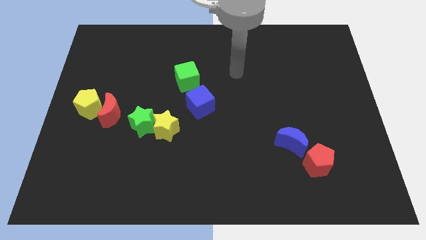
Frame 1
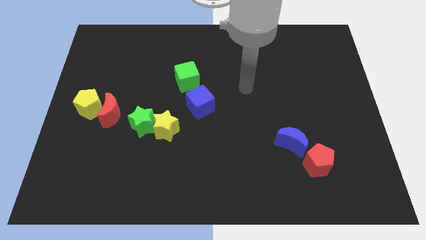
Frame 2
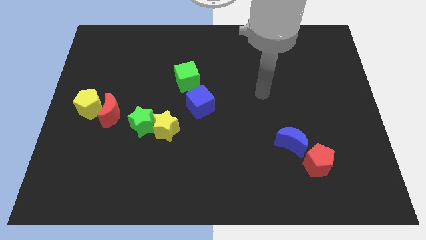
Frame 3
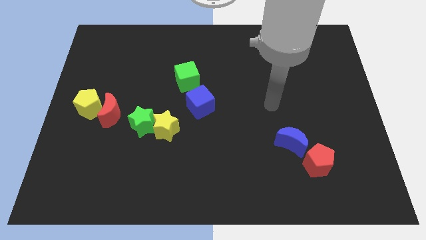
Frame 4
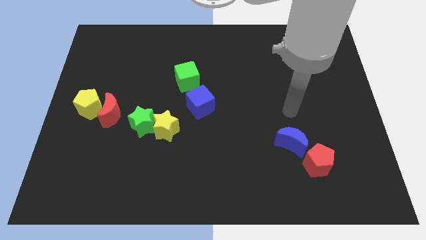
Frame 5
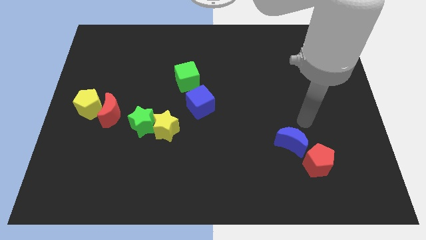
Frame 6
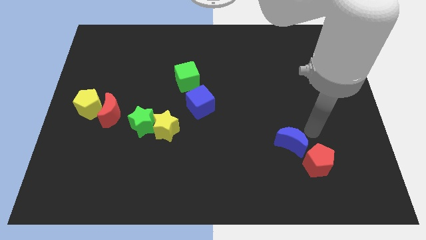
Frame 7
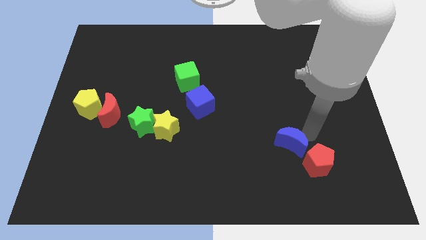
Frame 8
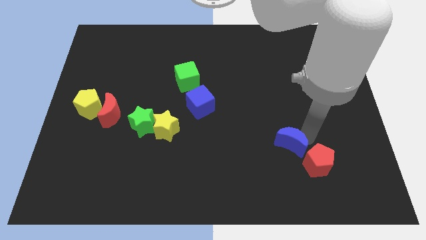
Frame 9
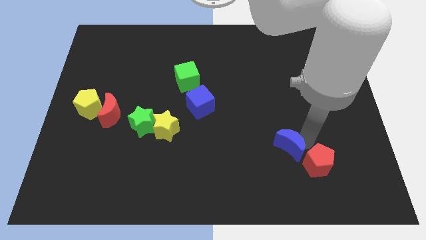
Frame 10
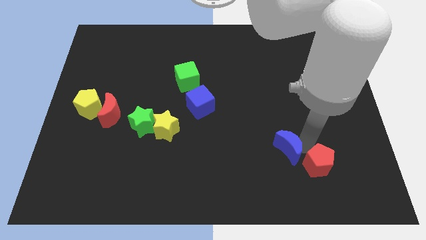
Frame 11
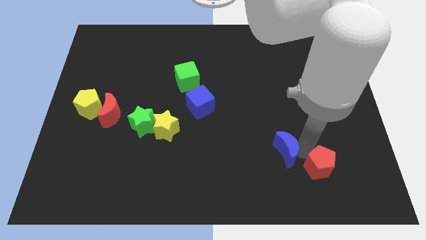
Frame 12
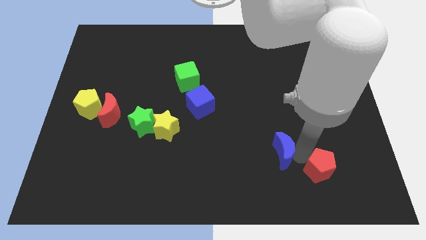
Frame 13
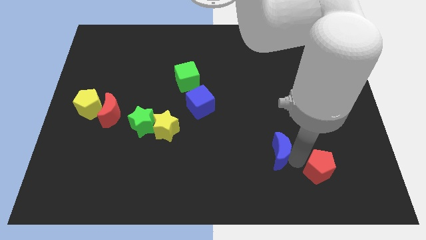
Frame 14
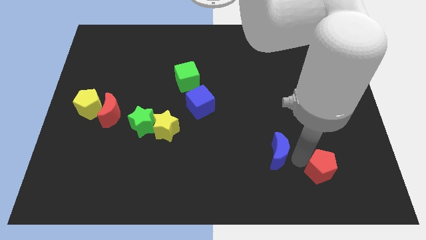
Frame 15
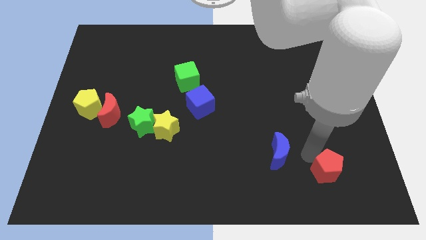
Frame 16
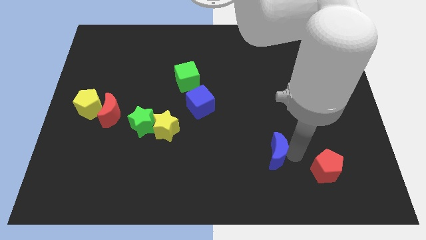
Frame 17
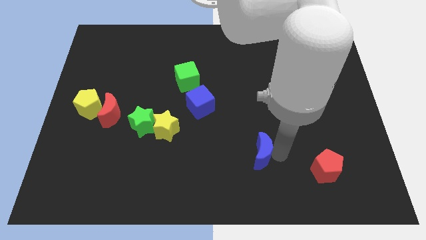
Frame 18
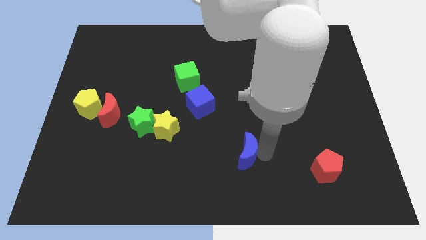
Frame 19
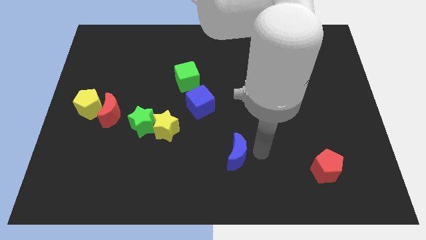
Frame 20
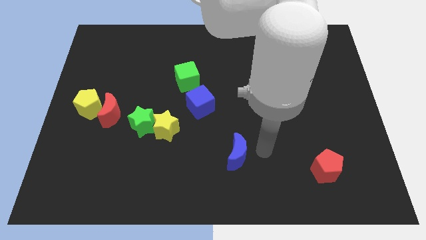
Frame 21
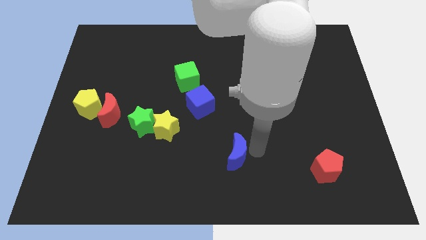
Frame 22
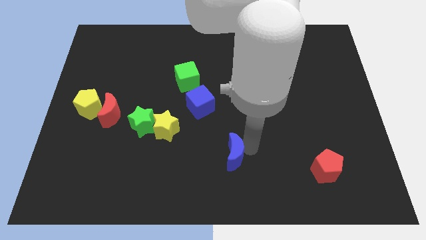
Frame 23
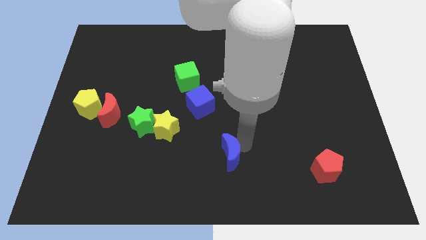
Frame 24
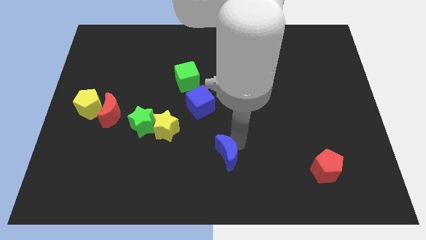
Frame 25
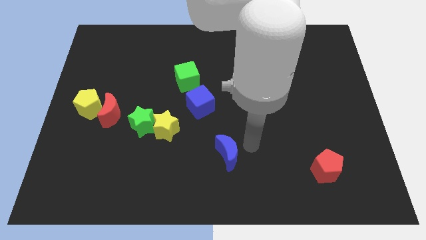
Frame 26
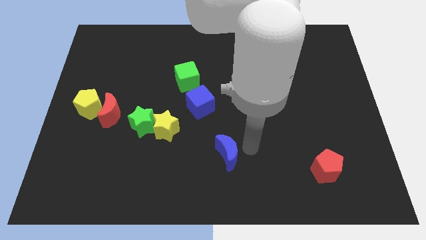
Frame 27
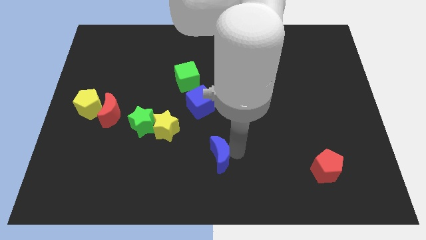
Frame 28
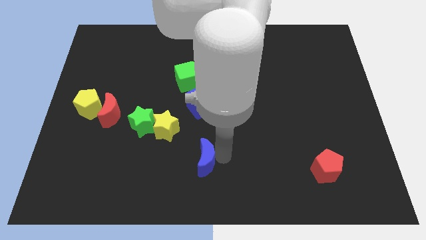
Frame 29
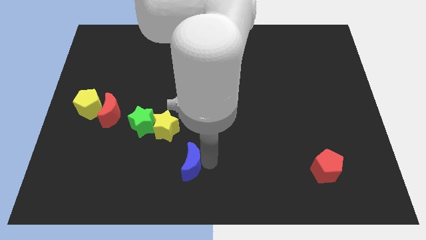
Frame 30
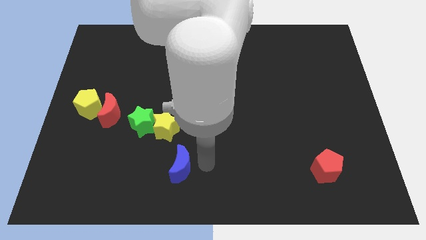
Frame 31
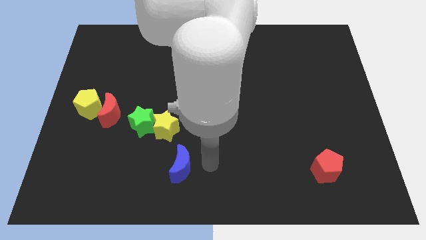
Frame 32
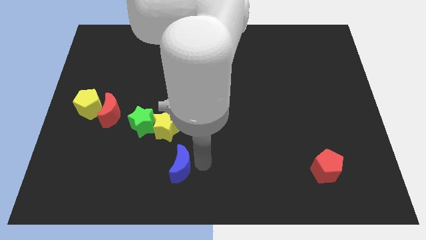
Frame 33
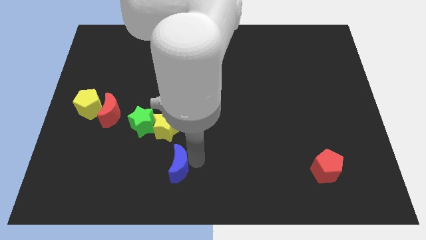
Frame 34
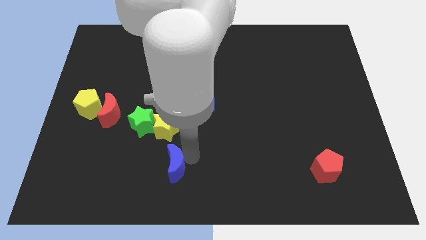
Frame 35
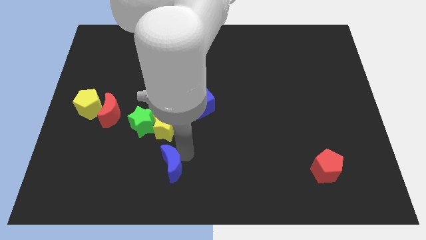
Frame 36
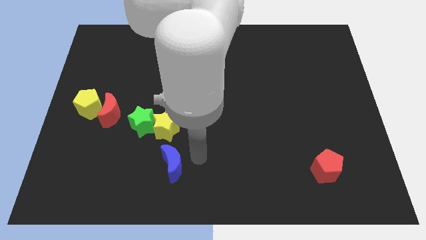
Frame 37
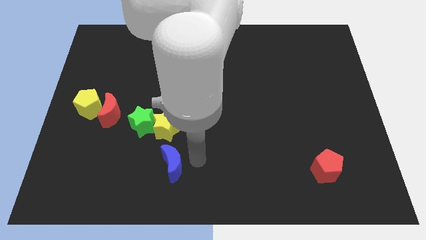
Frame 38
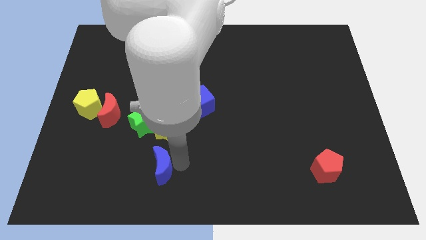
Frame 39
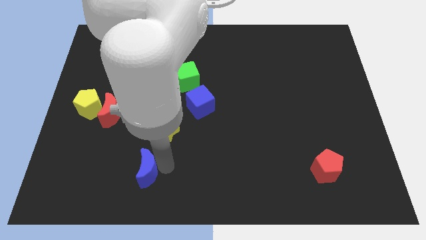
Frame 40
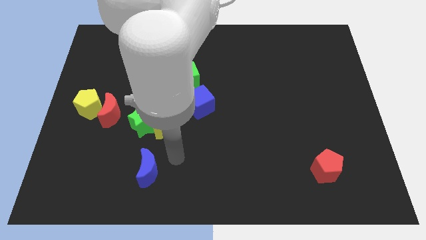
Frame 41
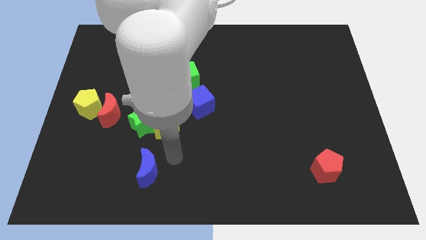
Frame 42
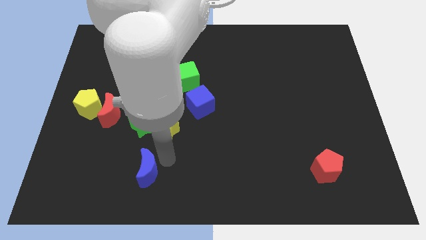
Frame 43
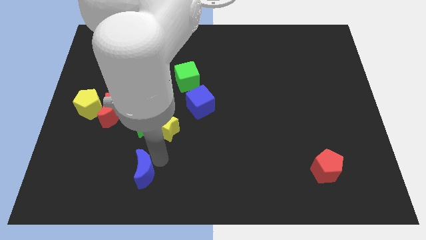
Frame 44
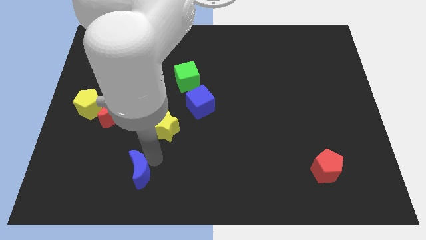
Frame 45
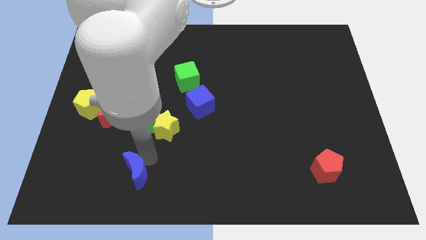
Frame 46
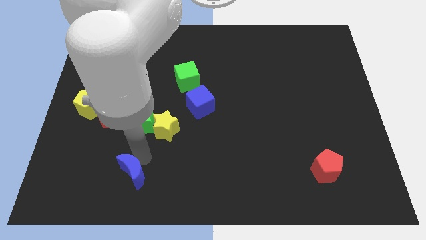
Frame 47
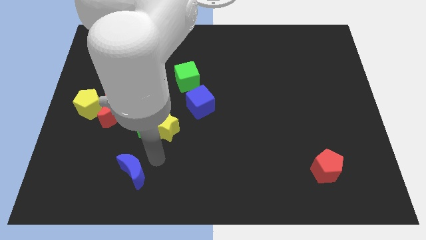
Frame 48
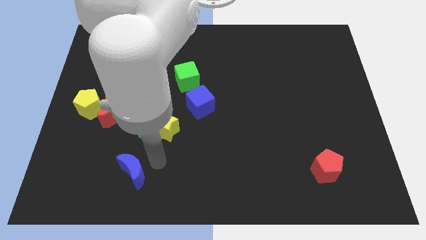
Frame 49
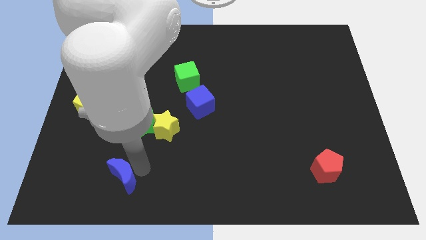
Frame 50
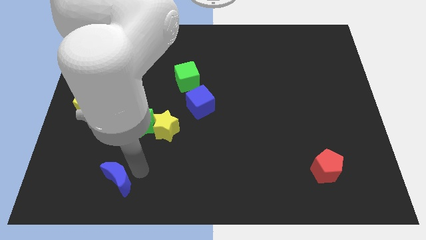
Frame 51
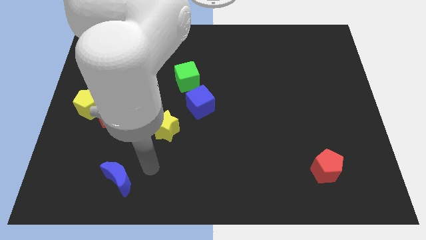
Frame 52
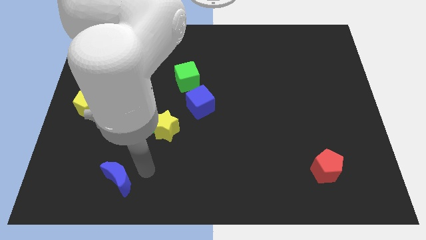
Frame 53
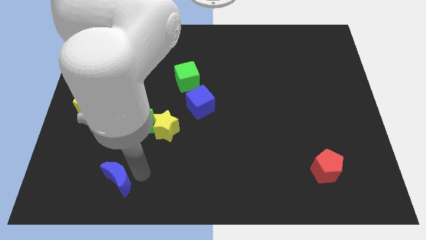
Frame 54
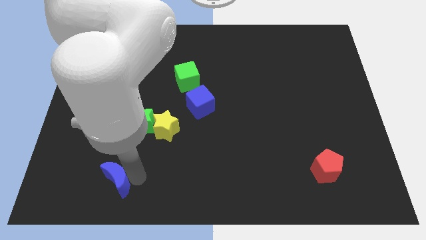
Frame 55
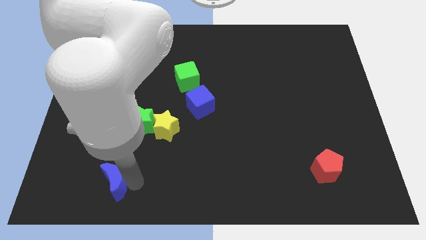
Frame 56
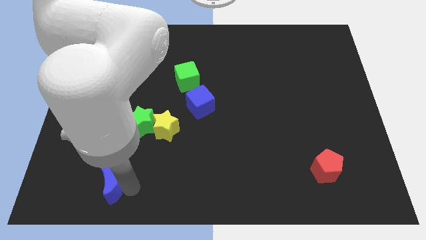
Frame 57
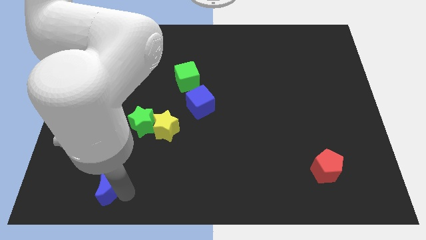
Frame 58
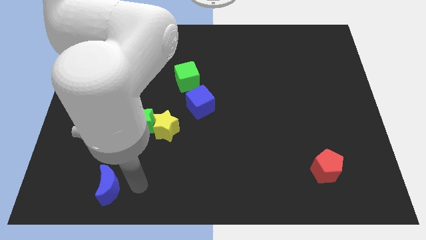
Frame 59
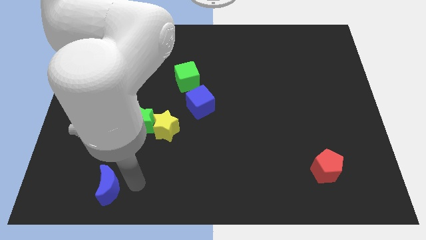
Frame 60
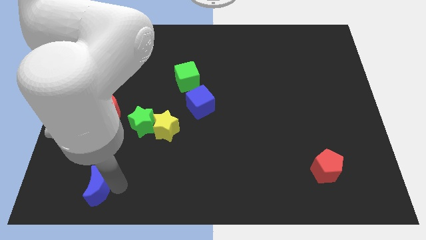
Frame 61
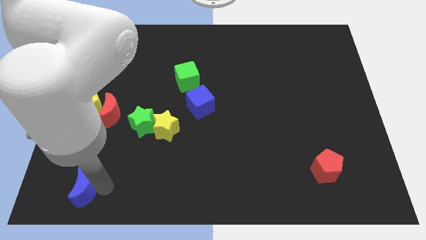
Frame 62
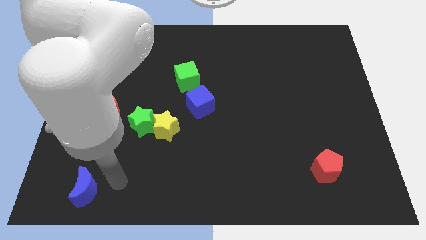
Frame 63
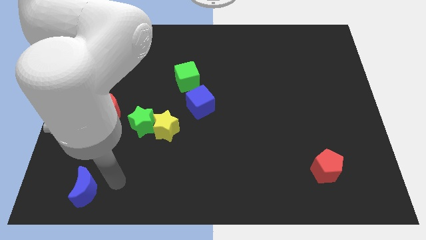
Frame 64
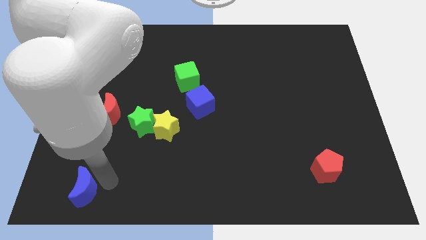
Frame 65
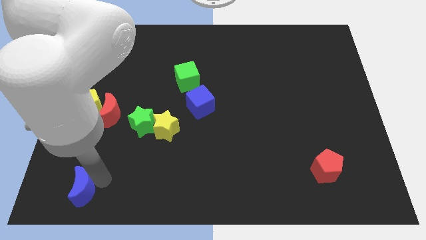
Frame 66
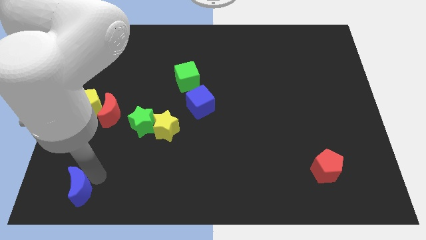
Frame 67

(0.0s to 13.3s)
put the blue moon to the bottom left corner
